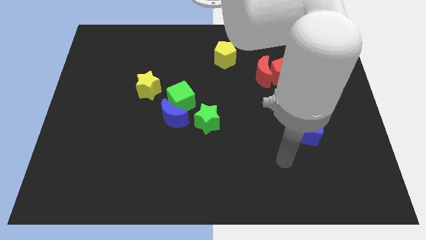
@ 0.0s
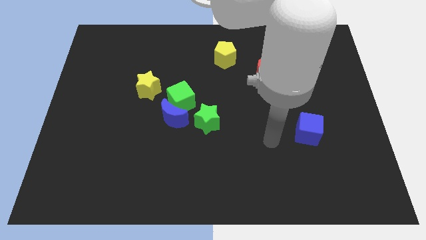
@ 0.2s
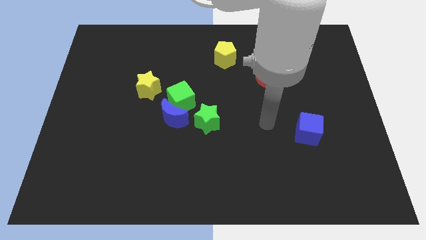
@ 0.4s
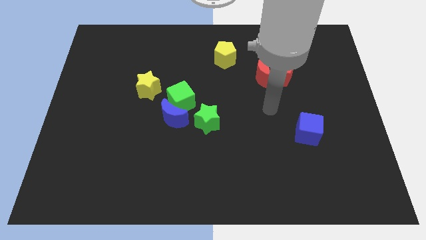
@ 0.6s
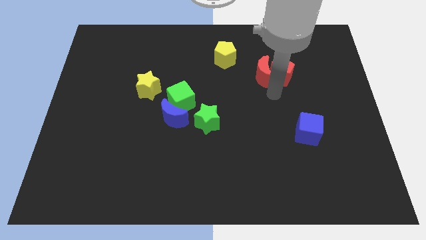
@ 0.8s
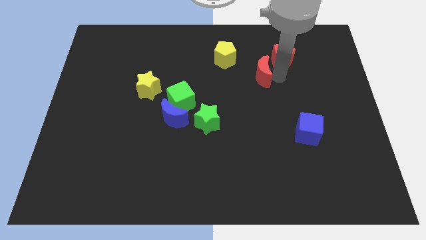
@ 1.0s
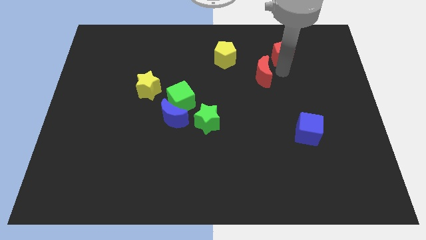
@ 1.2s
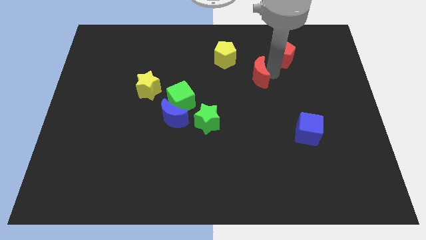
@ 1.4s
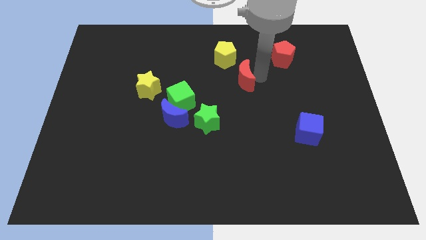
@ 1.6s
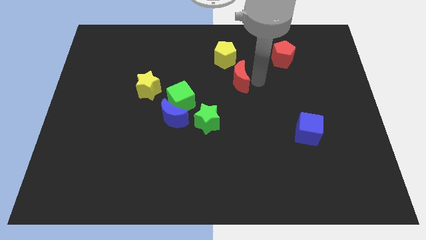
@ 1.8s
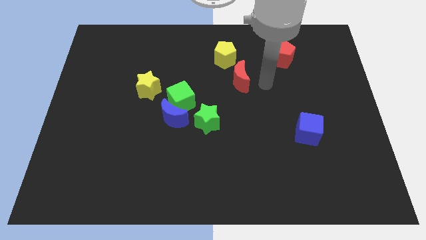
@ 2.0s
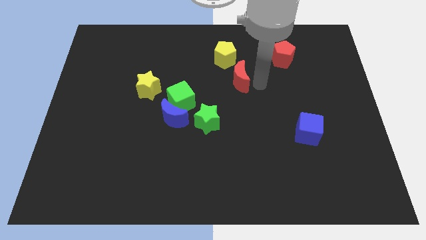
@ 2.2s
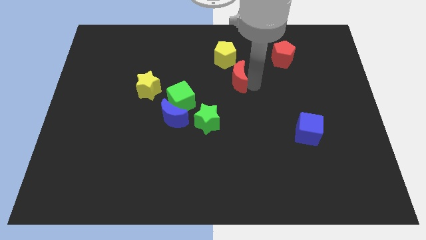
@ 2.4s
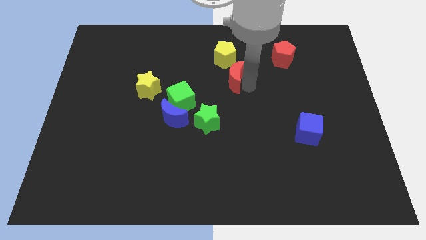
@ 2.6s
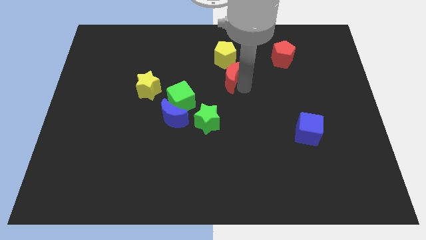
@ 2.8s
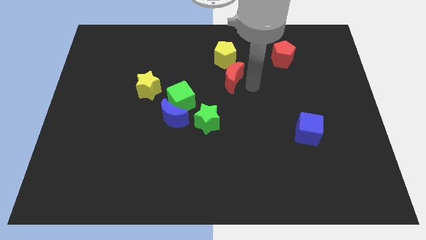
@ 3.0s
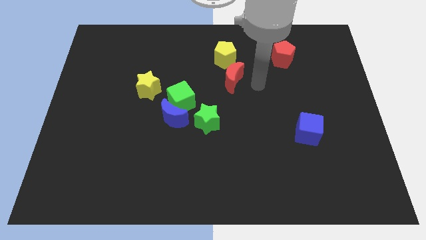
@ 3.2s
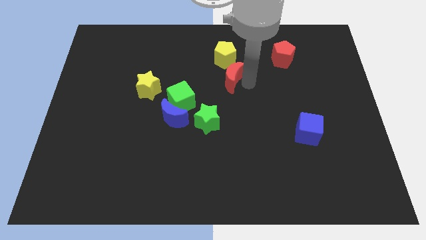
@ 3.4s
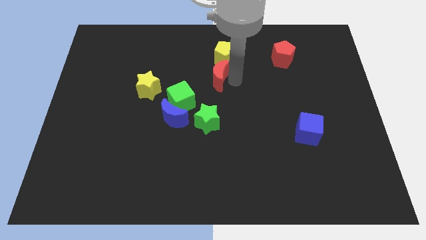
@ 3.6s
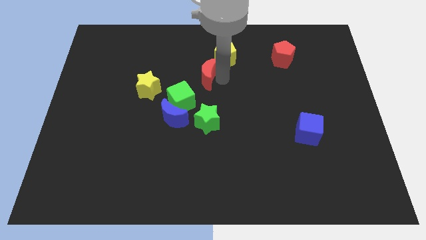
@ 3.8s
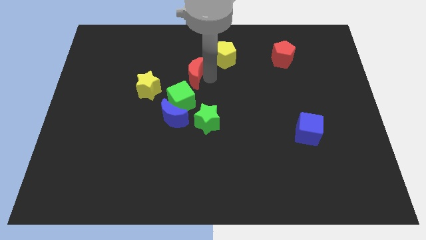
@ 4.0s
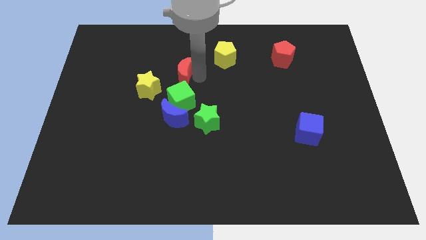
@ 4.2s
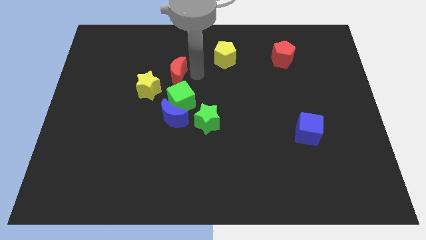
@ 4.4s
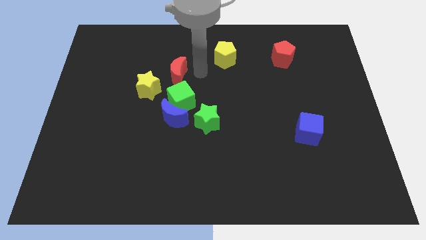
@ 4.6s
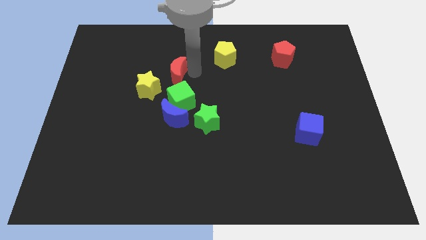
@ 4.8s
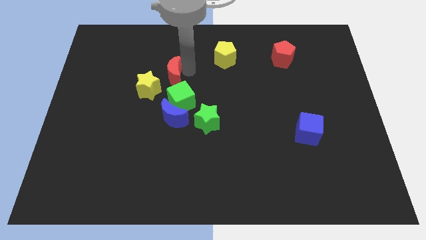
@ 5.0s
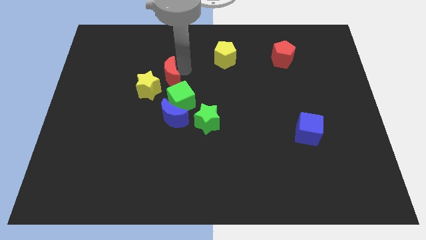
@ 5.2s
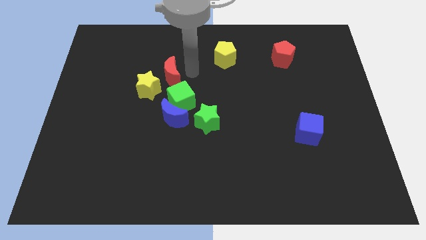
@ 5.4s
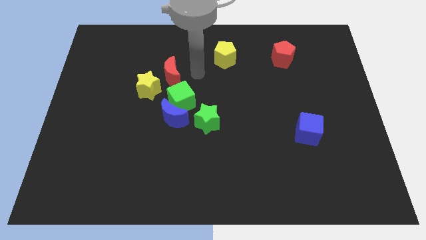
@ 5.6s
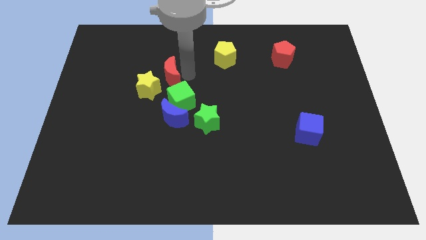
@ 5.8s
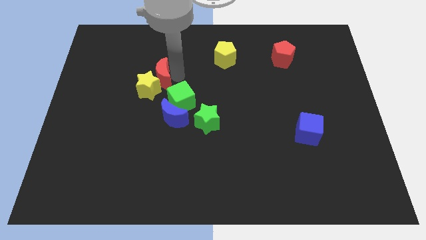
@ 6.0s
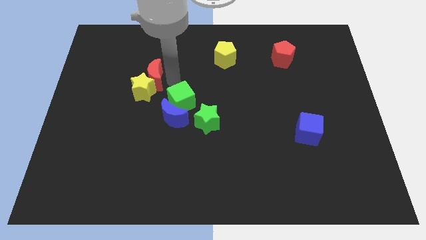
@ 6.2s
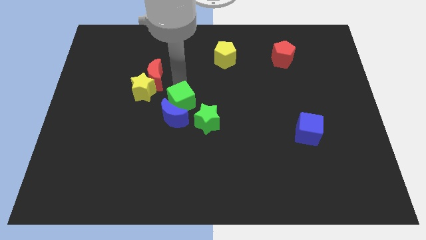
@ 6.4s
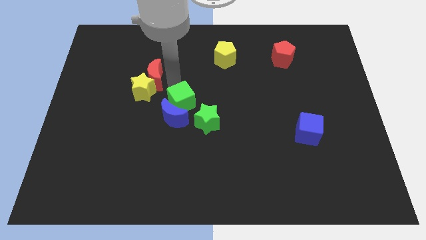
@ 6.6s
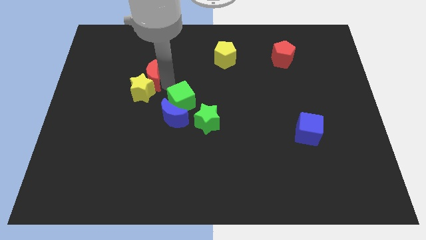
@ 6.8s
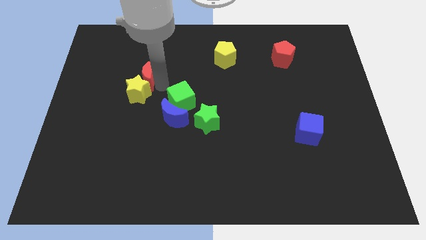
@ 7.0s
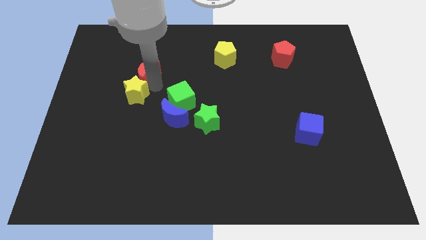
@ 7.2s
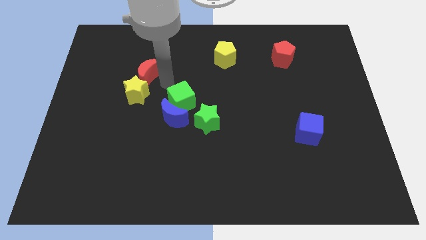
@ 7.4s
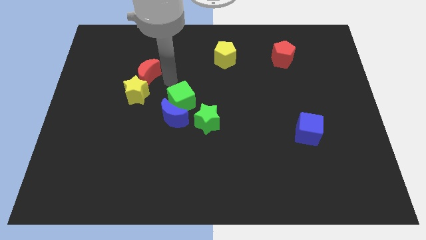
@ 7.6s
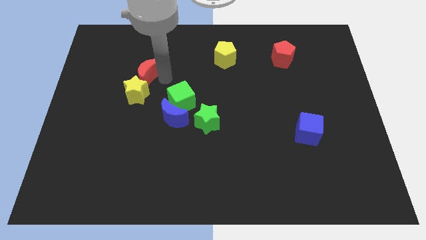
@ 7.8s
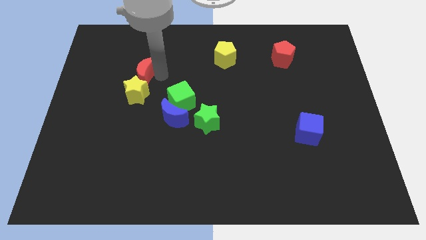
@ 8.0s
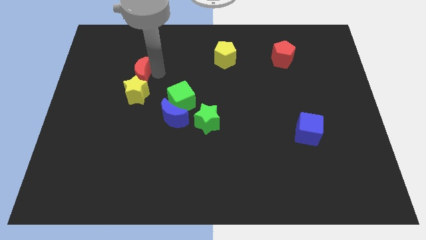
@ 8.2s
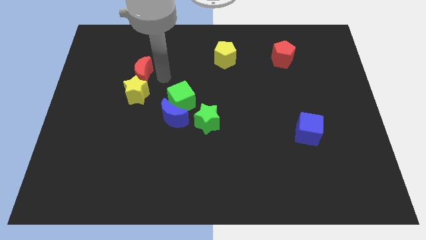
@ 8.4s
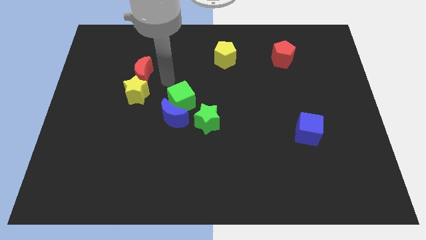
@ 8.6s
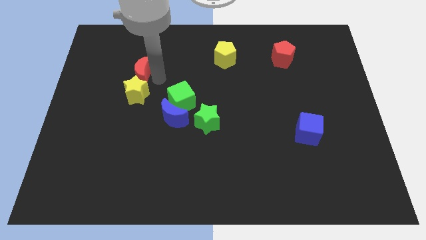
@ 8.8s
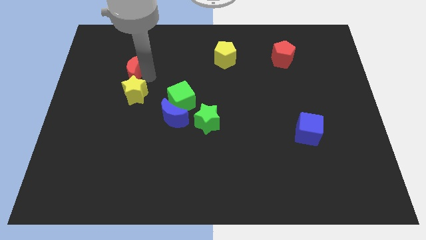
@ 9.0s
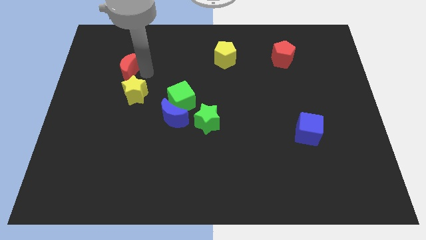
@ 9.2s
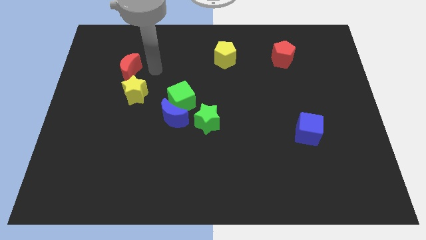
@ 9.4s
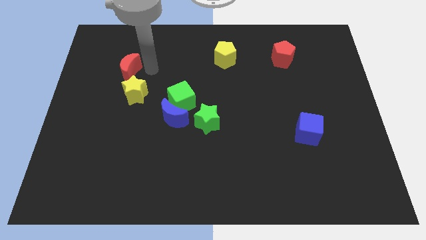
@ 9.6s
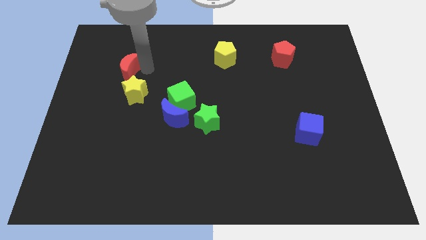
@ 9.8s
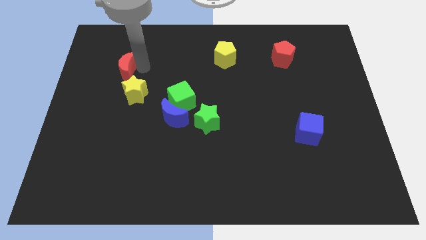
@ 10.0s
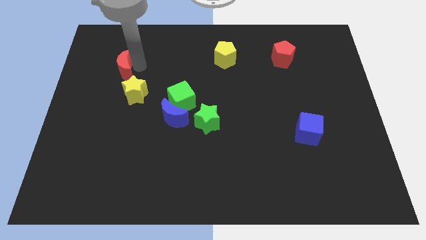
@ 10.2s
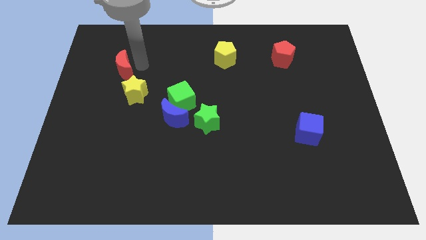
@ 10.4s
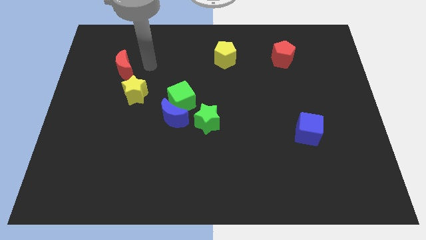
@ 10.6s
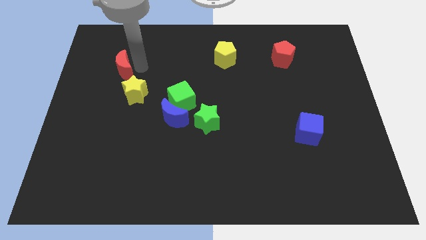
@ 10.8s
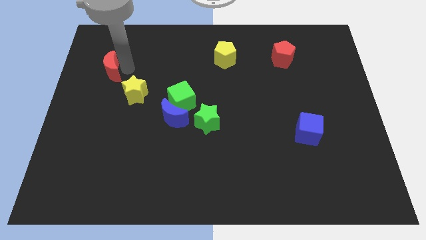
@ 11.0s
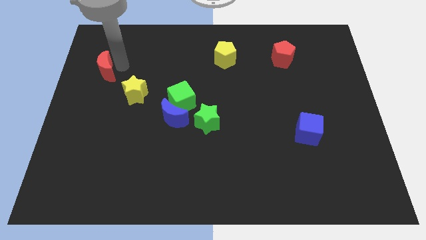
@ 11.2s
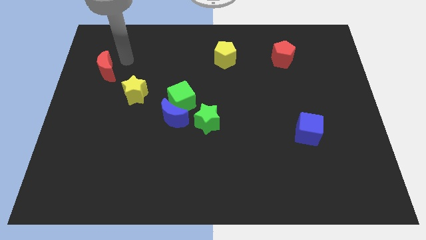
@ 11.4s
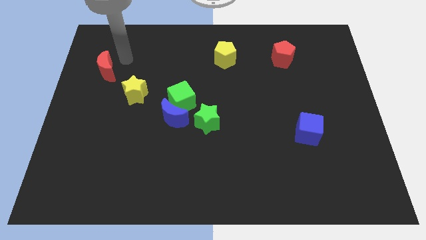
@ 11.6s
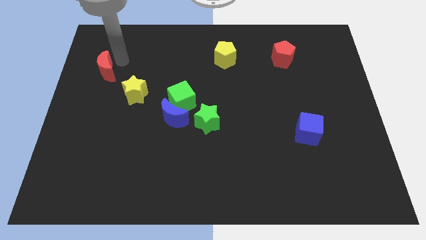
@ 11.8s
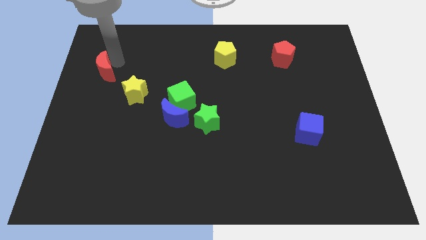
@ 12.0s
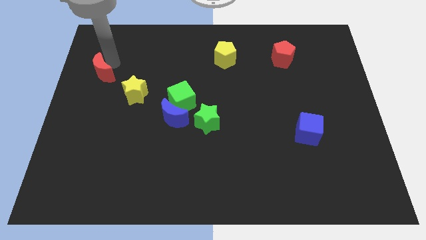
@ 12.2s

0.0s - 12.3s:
push the red moon to the center left

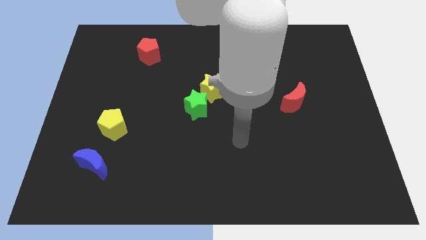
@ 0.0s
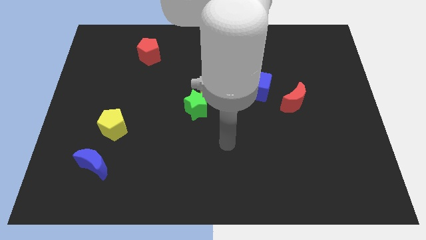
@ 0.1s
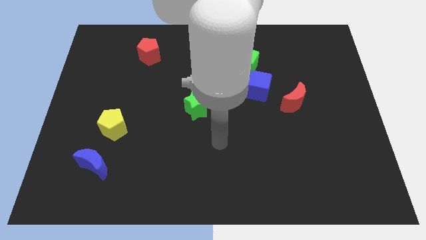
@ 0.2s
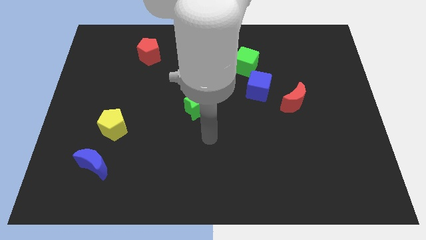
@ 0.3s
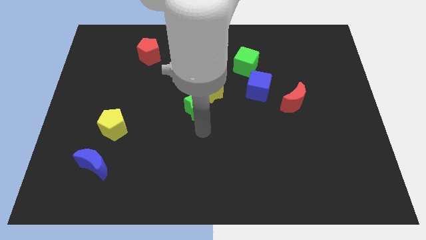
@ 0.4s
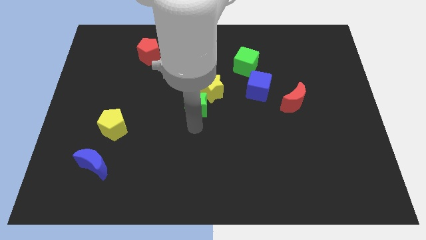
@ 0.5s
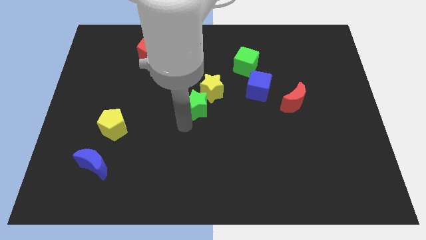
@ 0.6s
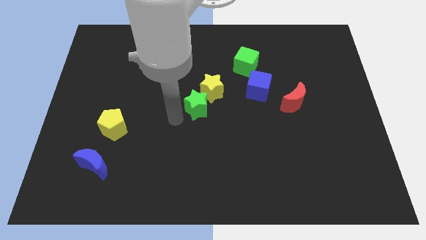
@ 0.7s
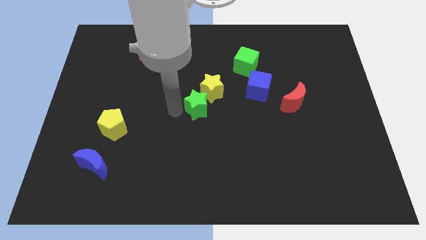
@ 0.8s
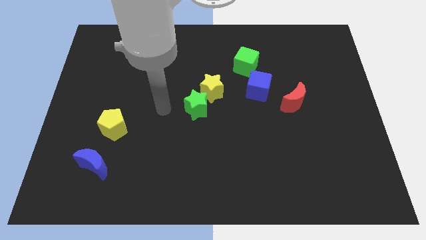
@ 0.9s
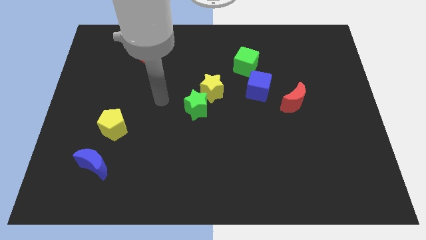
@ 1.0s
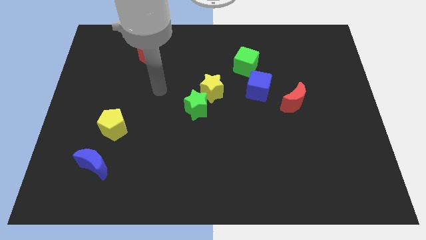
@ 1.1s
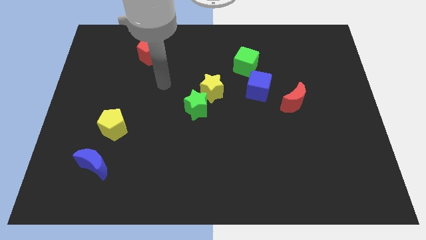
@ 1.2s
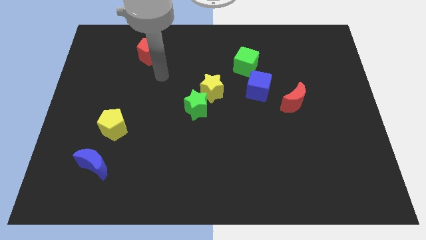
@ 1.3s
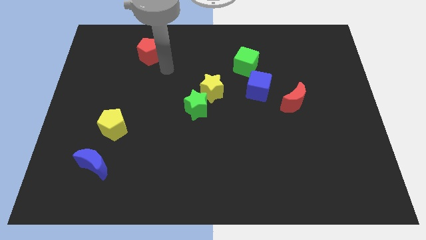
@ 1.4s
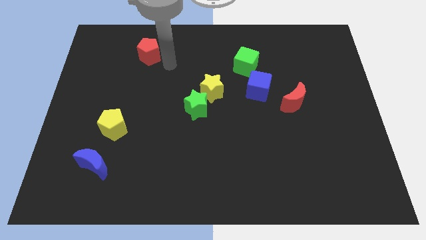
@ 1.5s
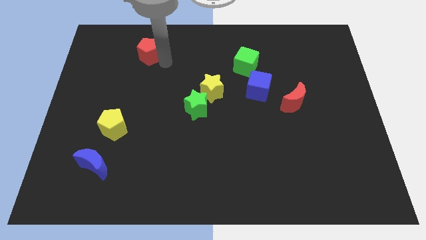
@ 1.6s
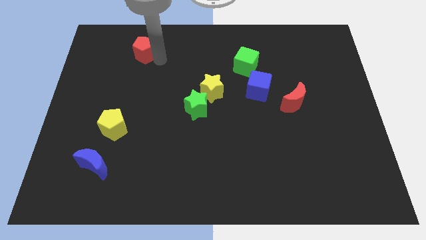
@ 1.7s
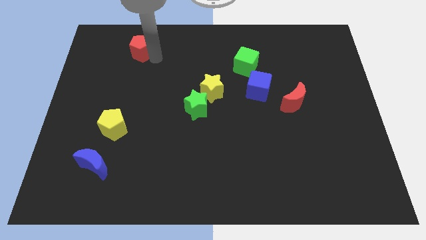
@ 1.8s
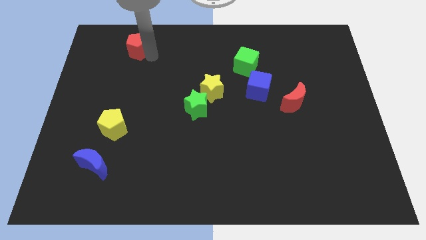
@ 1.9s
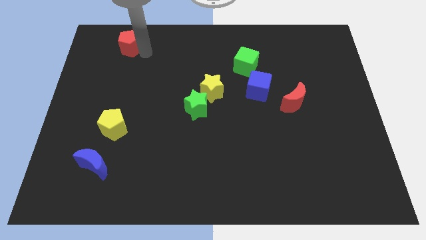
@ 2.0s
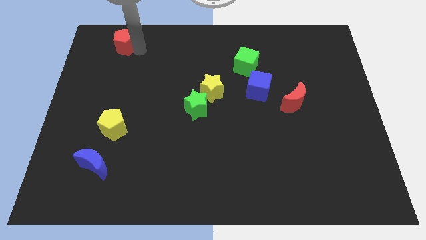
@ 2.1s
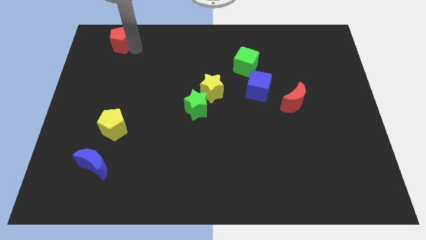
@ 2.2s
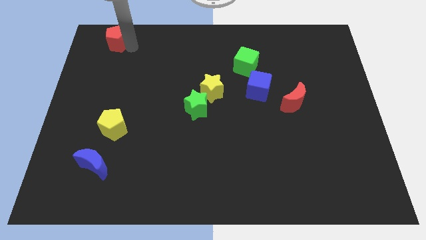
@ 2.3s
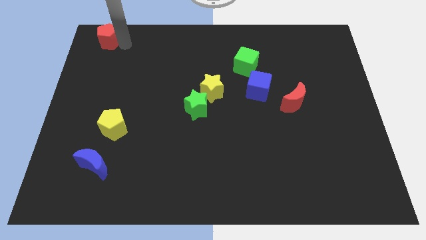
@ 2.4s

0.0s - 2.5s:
slide the red pentagon to the top left of the board
